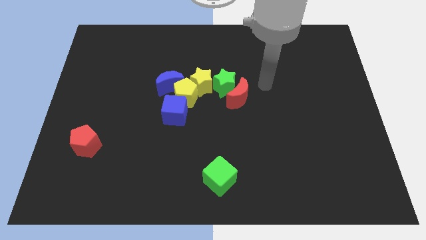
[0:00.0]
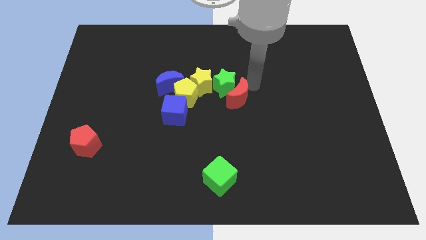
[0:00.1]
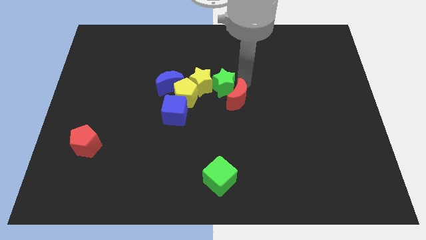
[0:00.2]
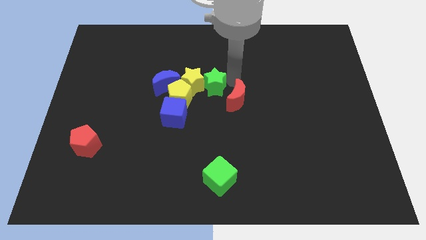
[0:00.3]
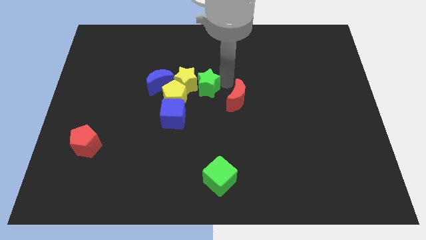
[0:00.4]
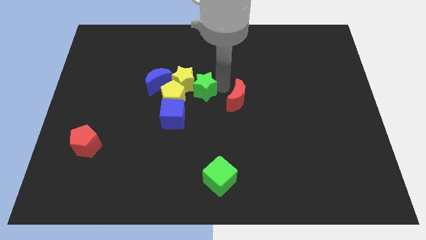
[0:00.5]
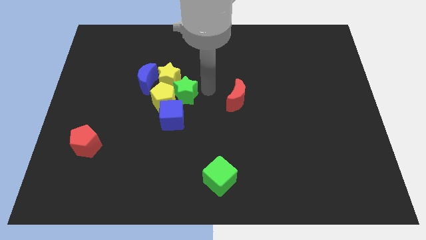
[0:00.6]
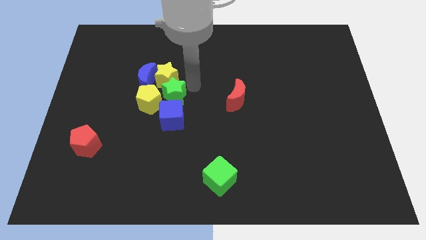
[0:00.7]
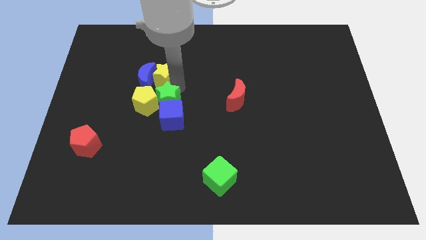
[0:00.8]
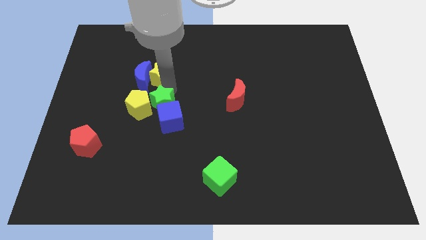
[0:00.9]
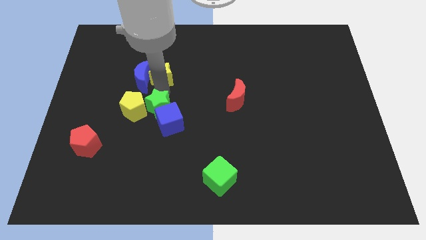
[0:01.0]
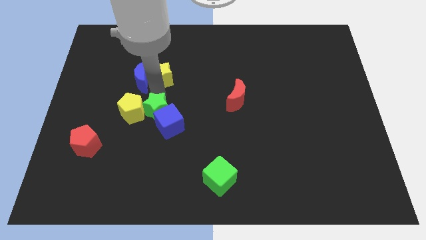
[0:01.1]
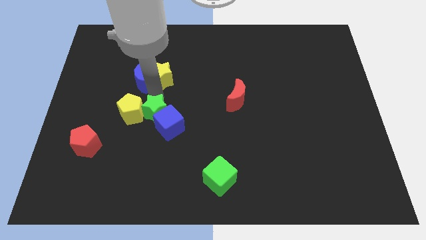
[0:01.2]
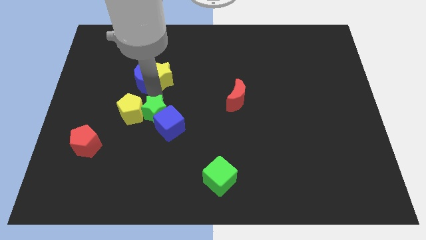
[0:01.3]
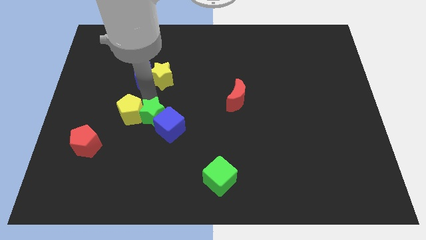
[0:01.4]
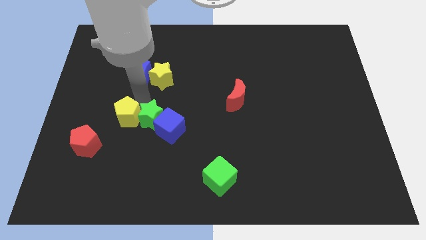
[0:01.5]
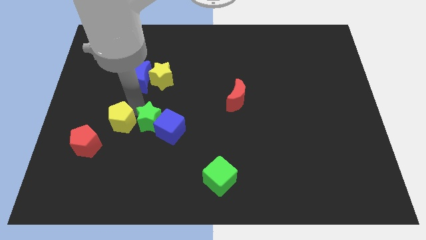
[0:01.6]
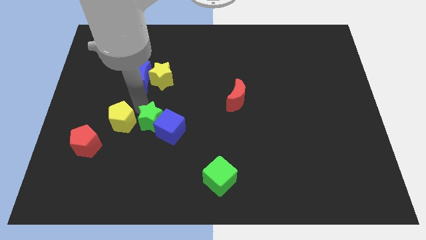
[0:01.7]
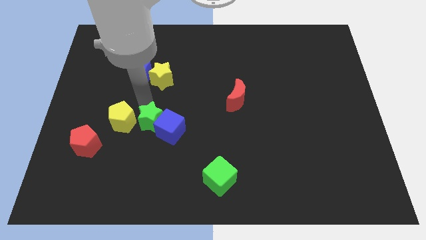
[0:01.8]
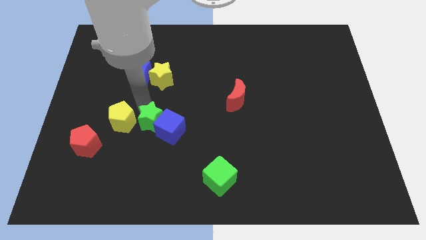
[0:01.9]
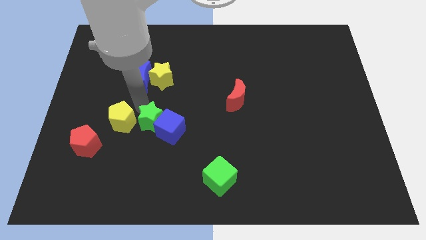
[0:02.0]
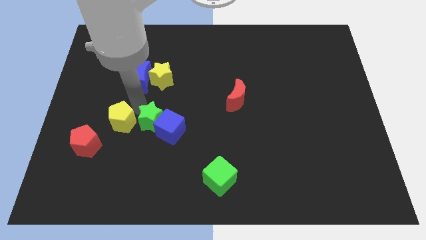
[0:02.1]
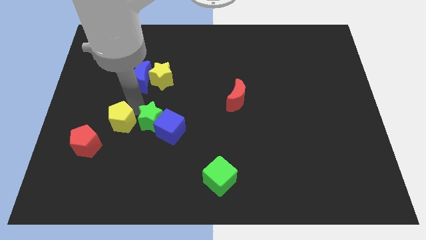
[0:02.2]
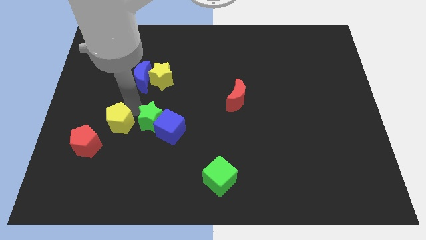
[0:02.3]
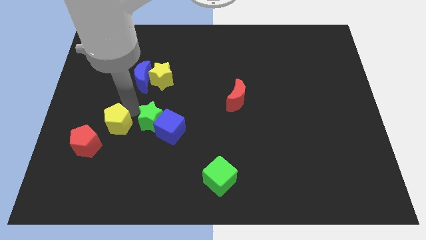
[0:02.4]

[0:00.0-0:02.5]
pull the yellow pentagon apart from the group of blocks

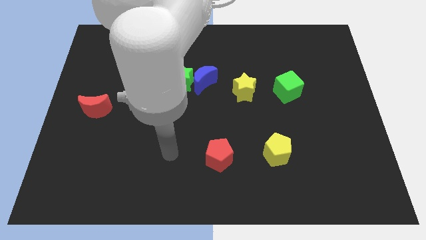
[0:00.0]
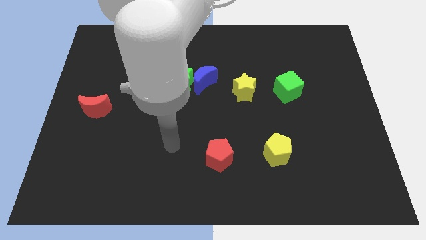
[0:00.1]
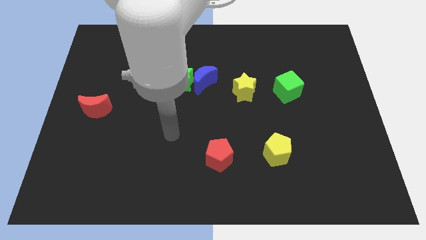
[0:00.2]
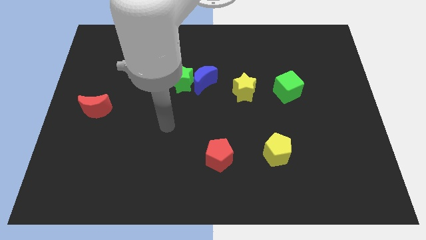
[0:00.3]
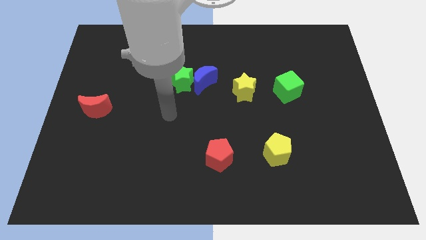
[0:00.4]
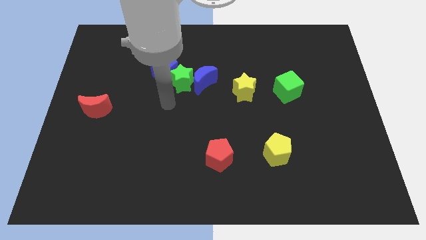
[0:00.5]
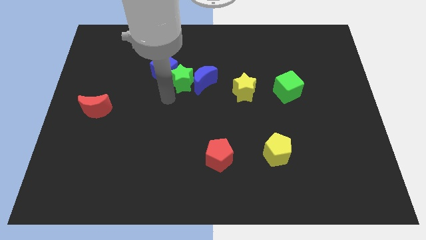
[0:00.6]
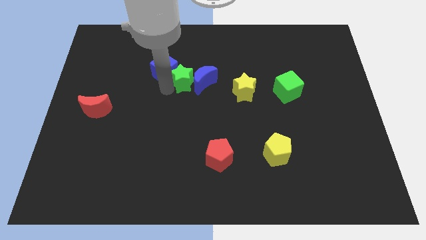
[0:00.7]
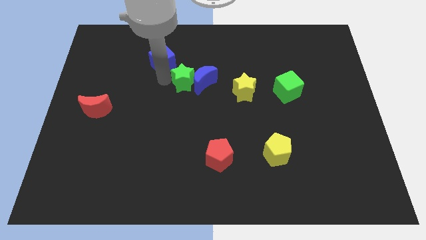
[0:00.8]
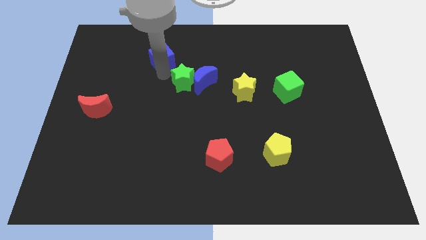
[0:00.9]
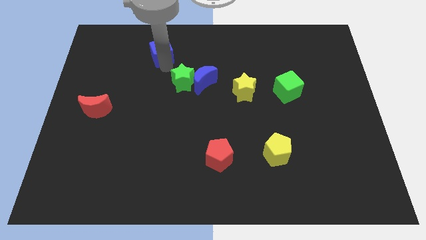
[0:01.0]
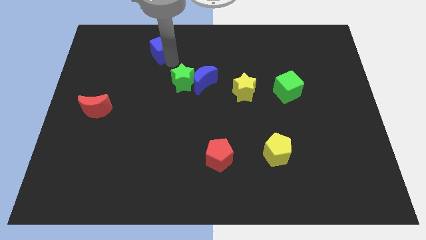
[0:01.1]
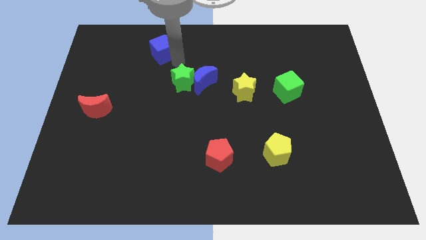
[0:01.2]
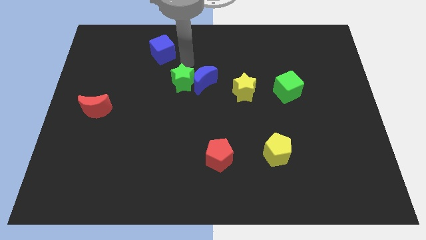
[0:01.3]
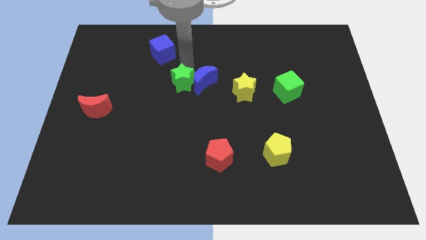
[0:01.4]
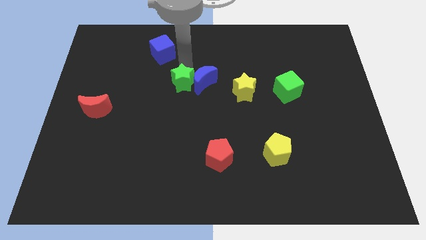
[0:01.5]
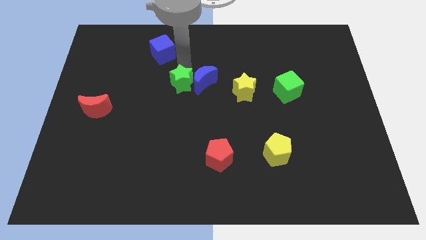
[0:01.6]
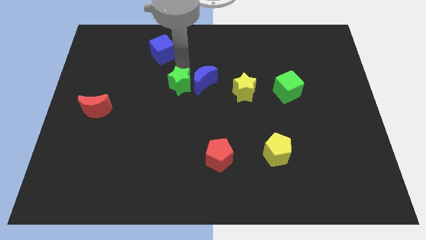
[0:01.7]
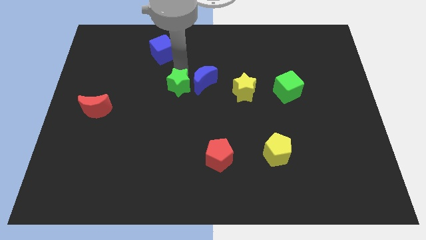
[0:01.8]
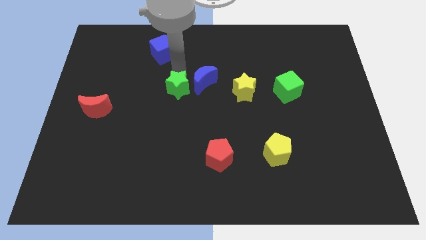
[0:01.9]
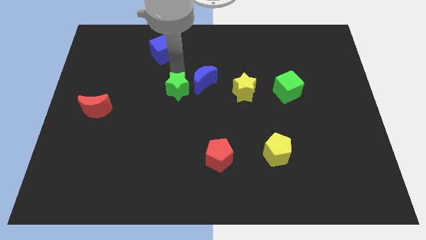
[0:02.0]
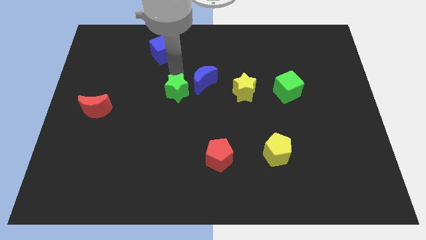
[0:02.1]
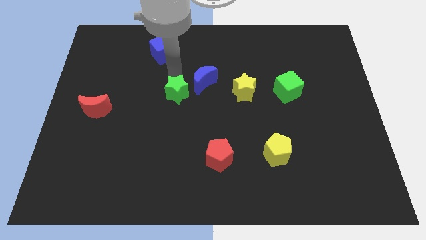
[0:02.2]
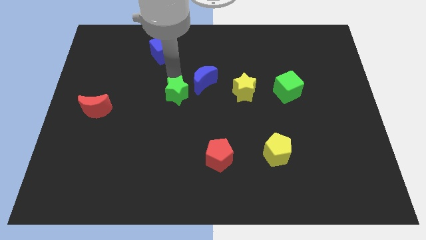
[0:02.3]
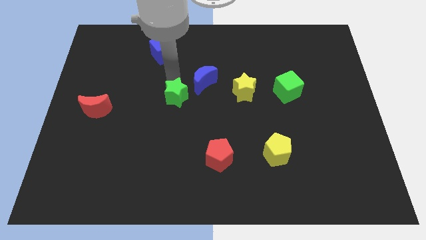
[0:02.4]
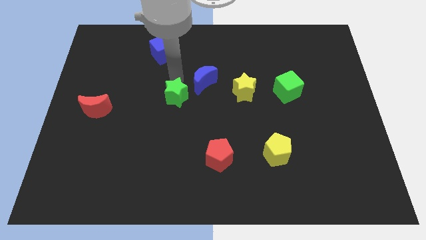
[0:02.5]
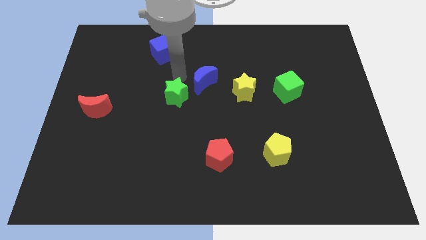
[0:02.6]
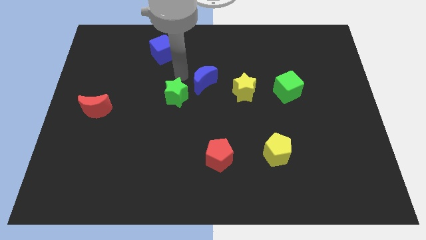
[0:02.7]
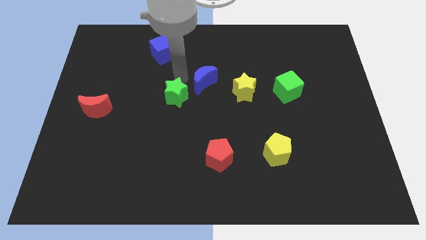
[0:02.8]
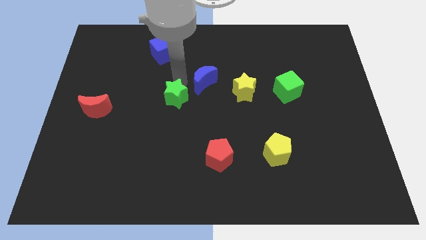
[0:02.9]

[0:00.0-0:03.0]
separate the green star from the blue moon and blue cube

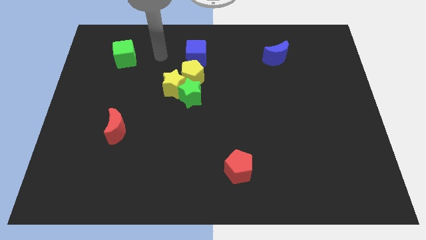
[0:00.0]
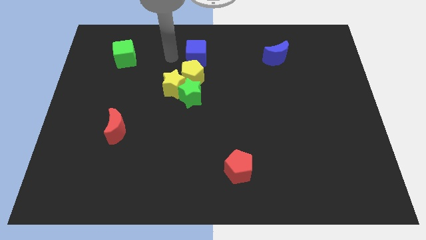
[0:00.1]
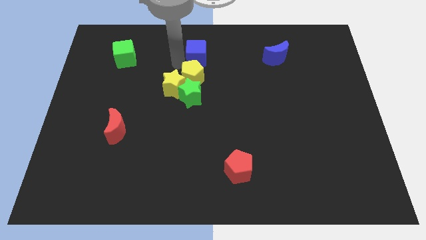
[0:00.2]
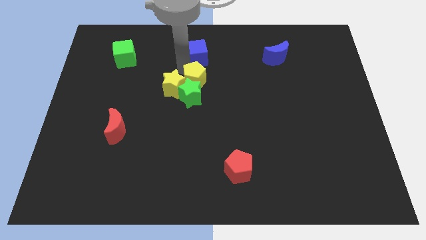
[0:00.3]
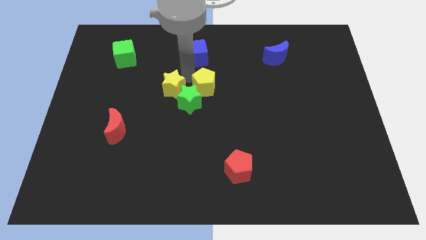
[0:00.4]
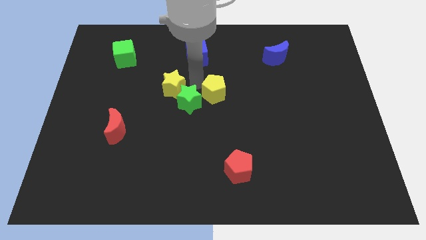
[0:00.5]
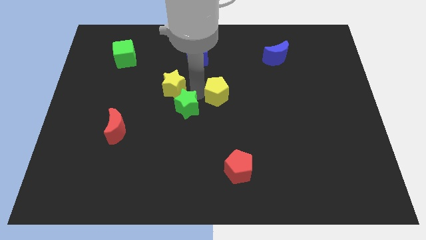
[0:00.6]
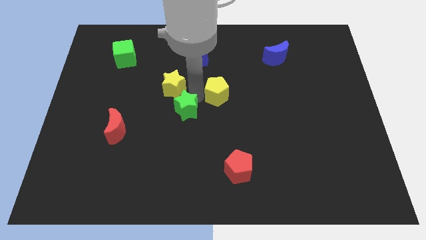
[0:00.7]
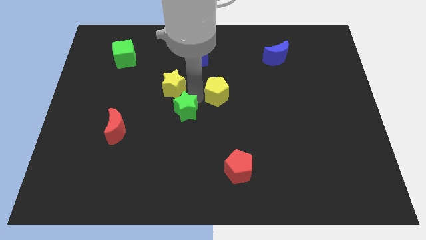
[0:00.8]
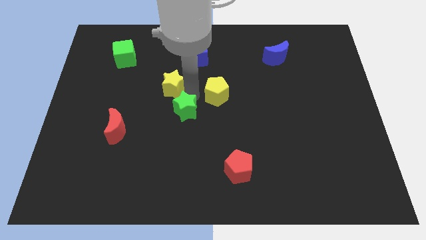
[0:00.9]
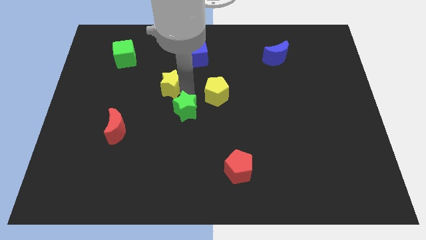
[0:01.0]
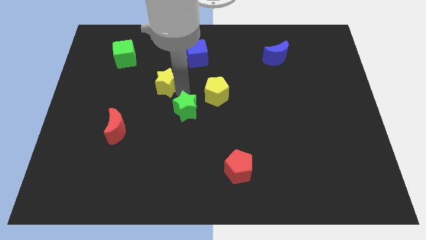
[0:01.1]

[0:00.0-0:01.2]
pull the yellow star apart from the green star and yellow pentagon

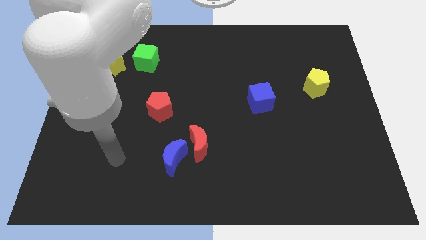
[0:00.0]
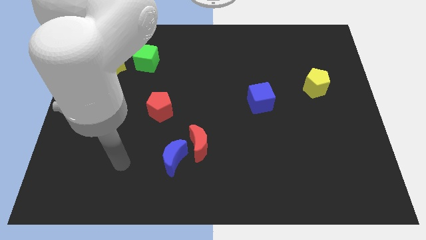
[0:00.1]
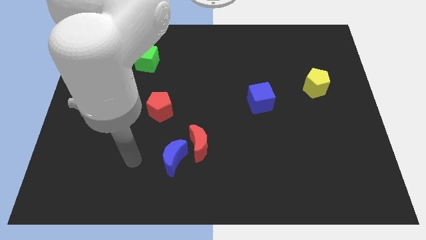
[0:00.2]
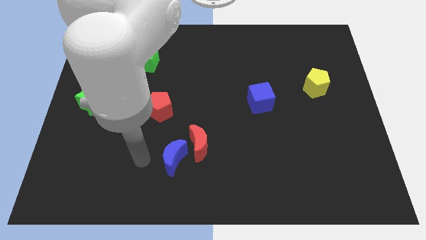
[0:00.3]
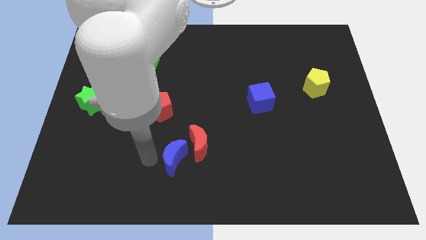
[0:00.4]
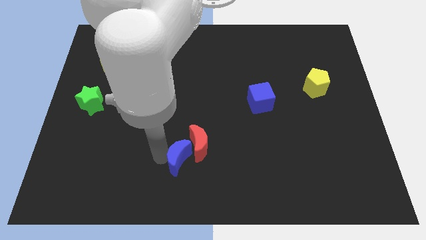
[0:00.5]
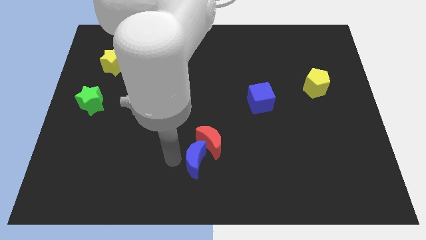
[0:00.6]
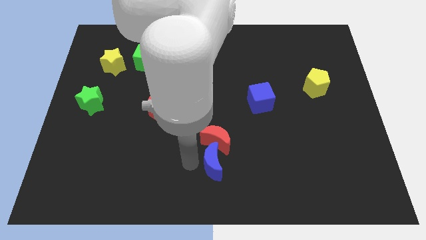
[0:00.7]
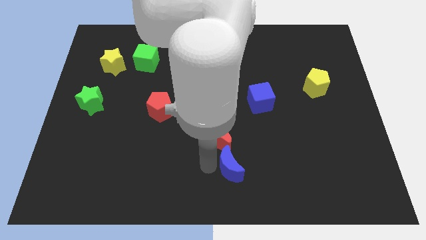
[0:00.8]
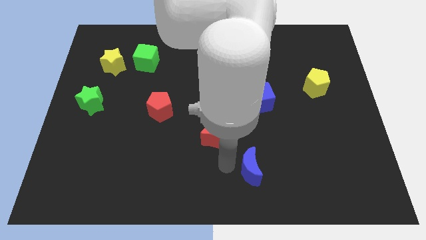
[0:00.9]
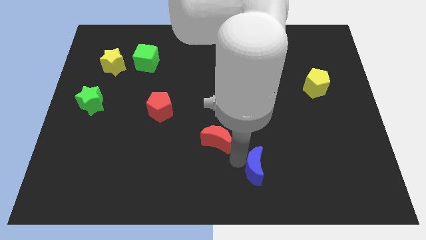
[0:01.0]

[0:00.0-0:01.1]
move the red moon away from the blue moon

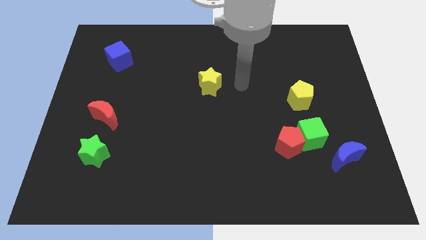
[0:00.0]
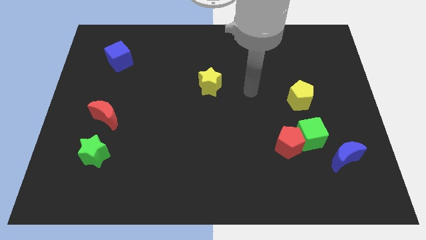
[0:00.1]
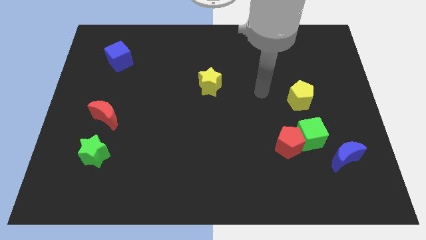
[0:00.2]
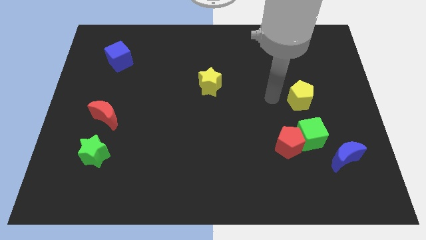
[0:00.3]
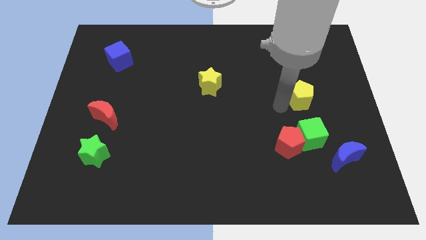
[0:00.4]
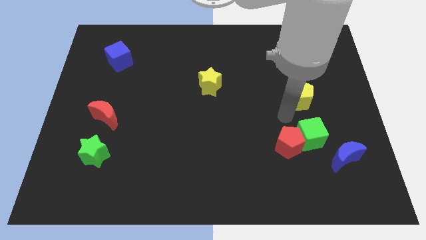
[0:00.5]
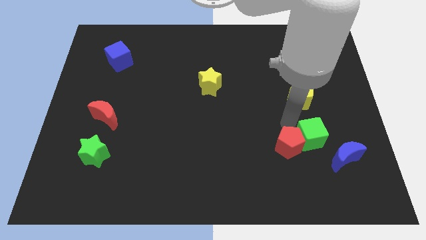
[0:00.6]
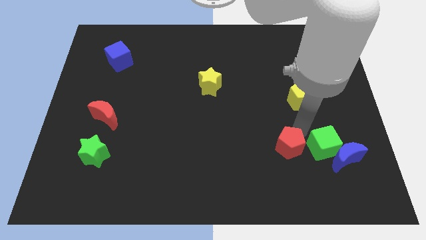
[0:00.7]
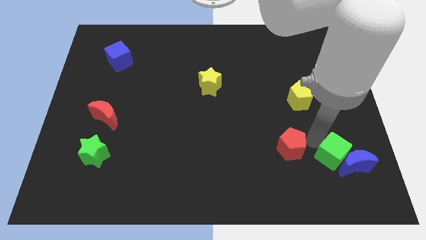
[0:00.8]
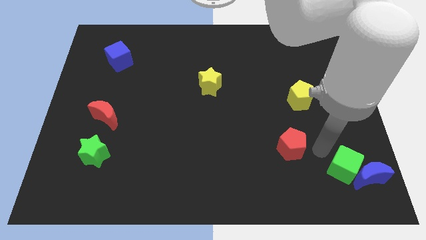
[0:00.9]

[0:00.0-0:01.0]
separate the red pentagon from the green cube

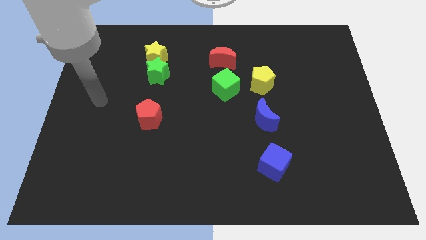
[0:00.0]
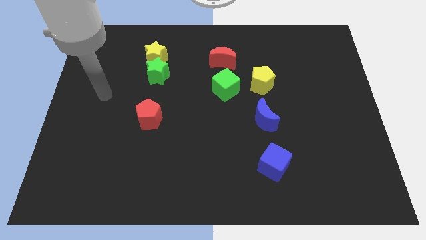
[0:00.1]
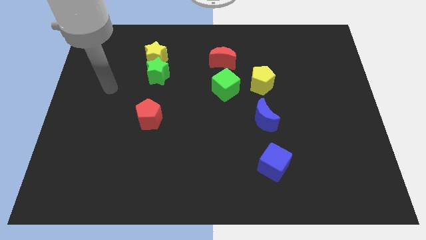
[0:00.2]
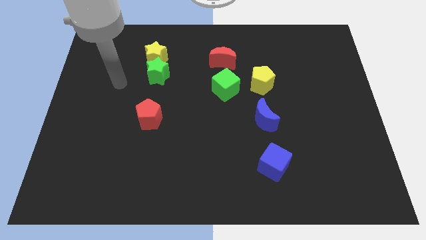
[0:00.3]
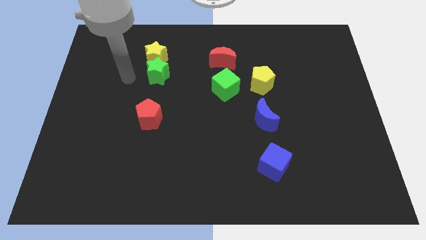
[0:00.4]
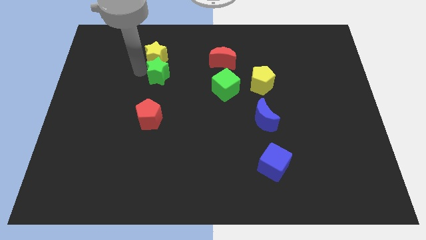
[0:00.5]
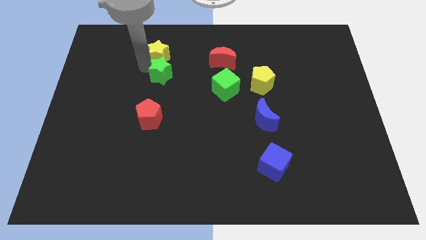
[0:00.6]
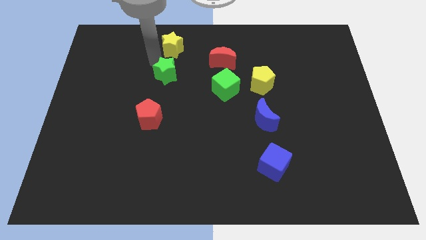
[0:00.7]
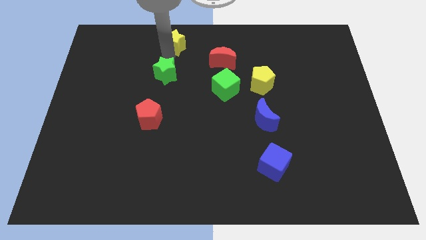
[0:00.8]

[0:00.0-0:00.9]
separate the green star from the yellow star
